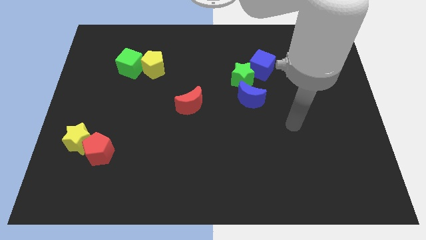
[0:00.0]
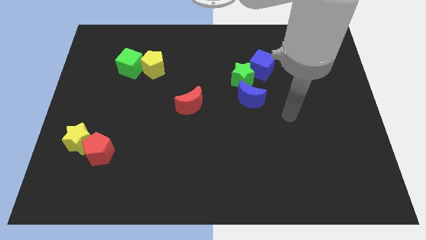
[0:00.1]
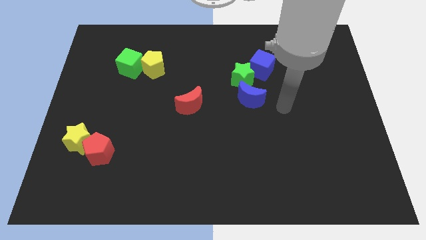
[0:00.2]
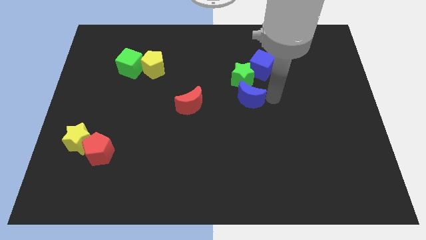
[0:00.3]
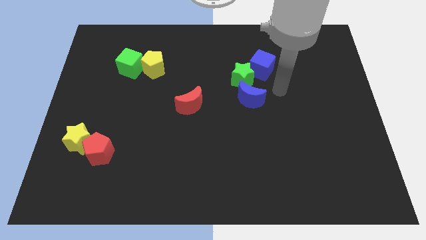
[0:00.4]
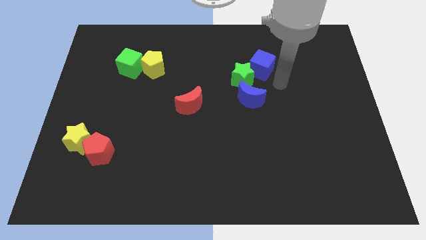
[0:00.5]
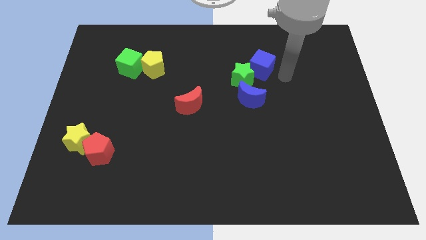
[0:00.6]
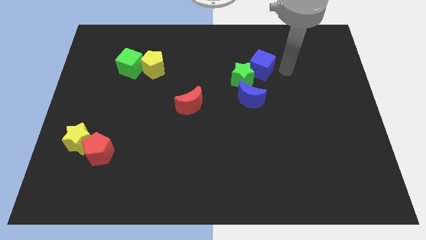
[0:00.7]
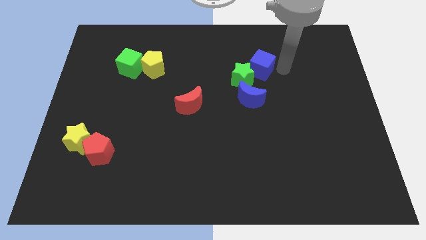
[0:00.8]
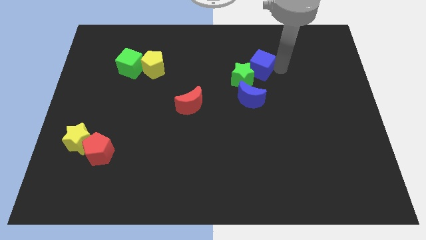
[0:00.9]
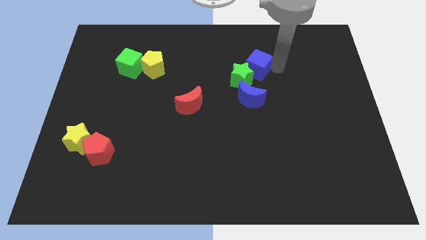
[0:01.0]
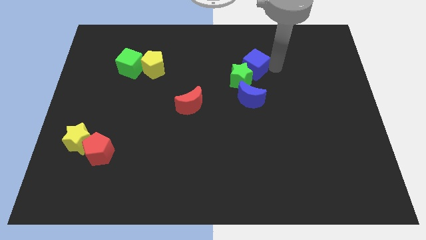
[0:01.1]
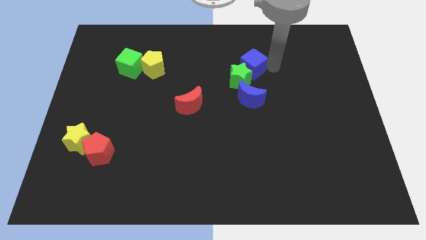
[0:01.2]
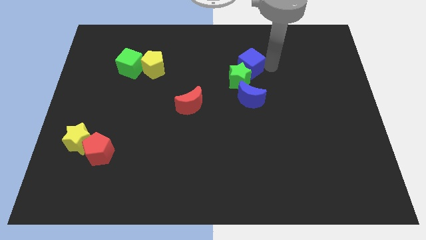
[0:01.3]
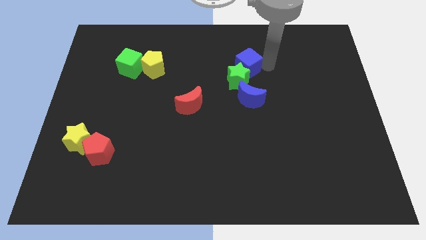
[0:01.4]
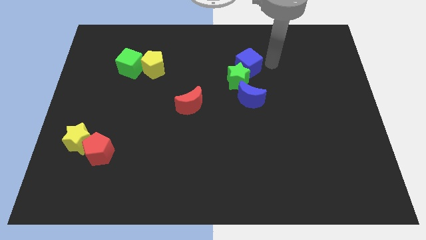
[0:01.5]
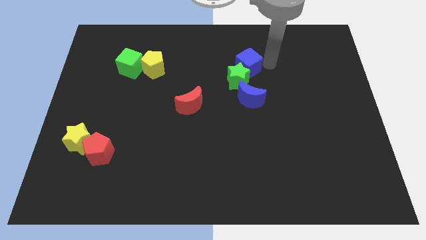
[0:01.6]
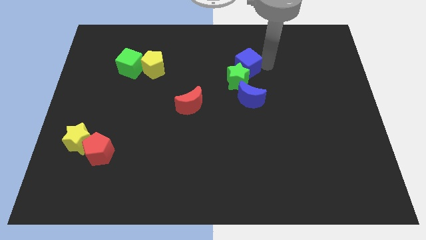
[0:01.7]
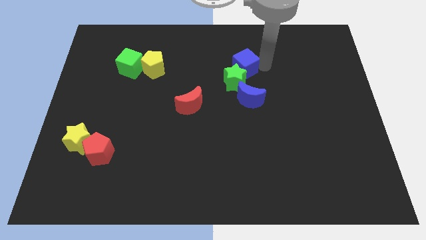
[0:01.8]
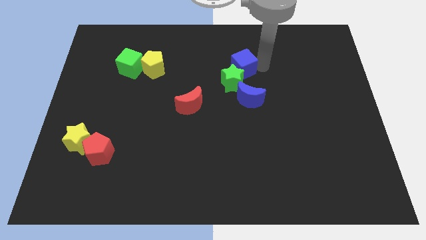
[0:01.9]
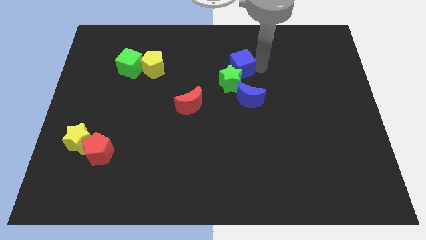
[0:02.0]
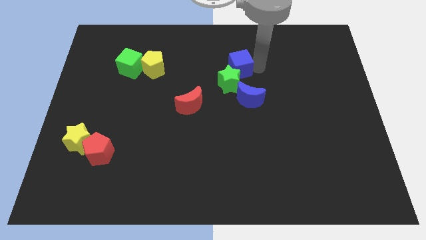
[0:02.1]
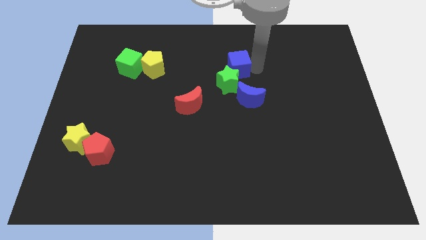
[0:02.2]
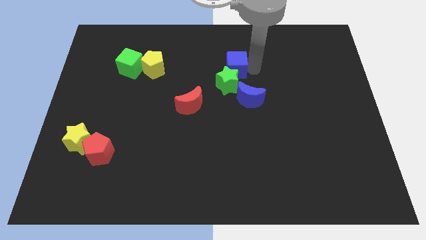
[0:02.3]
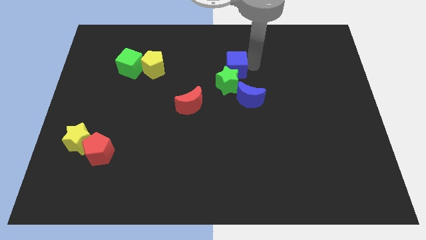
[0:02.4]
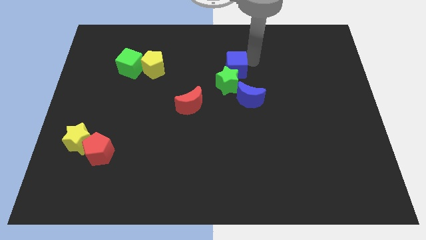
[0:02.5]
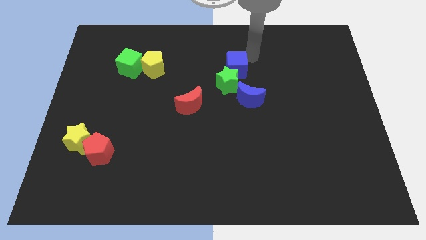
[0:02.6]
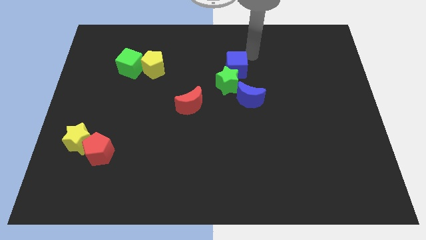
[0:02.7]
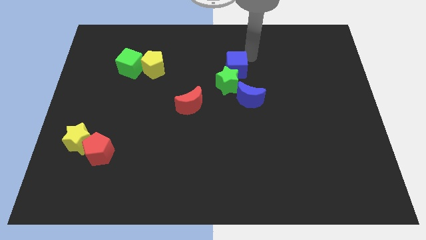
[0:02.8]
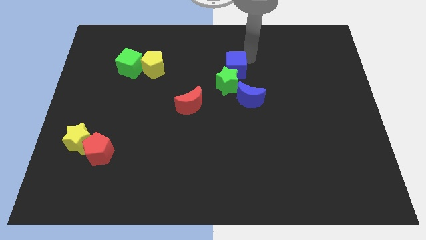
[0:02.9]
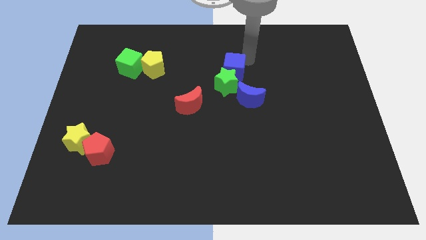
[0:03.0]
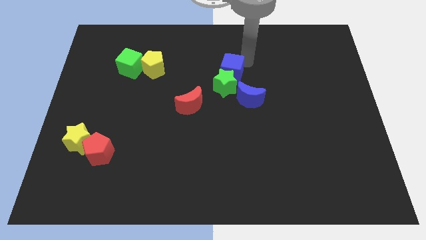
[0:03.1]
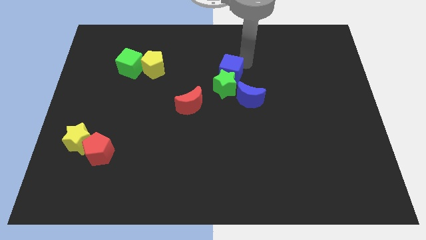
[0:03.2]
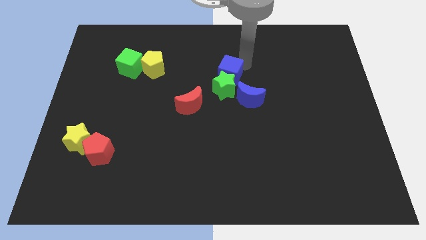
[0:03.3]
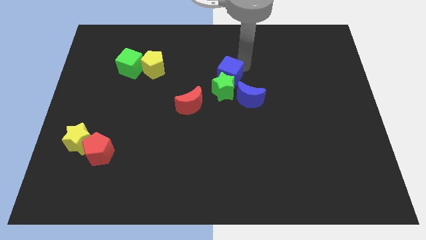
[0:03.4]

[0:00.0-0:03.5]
slightly push the blue cube downwards and left diagonally

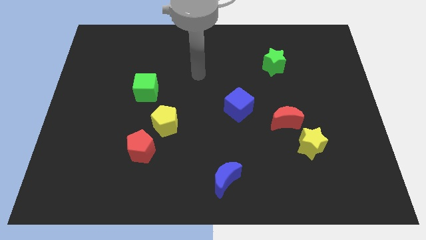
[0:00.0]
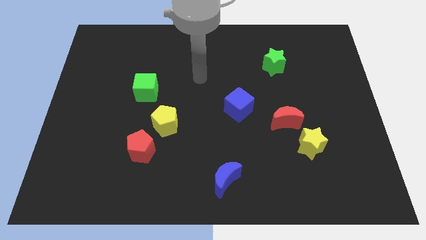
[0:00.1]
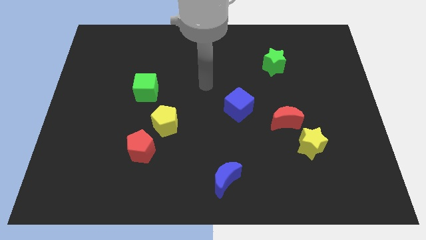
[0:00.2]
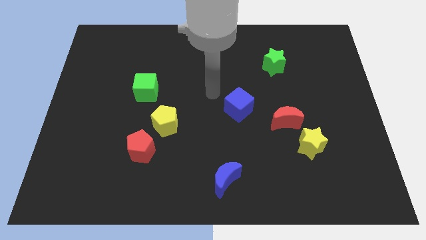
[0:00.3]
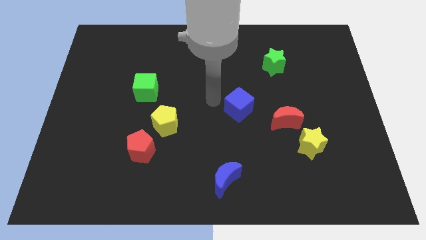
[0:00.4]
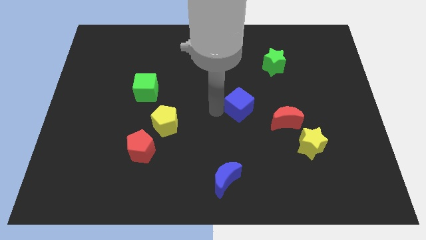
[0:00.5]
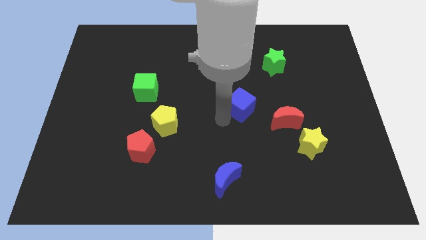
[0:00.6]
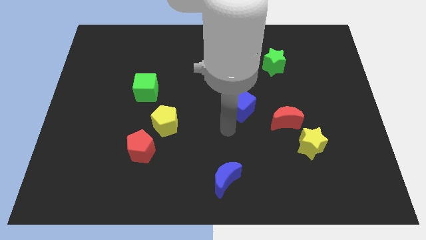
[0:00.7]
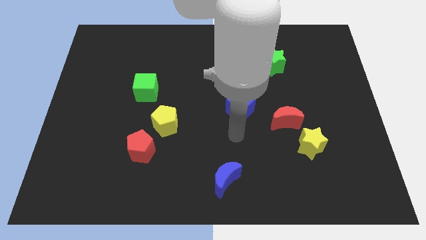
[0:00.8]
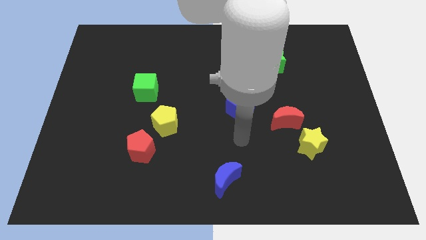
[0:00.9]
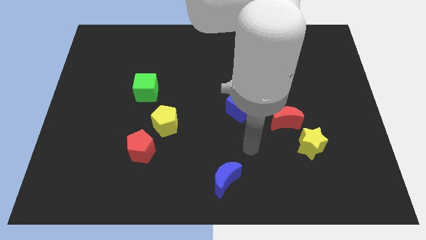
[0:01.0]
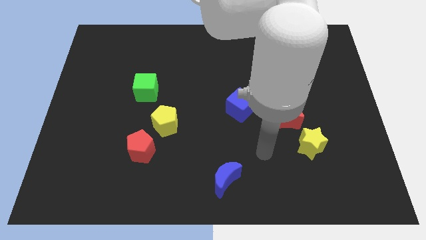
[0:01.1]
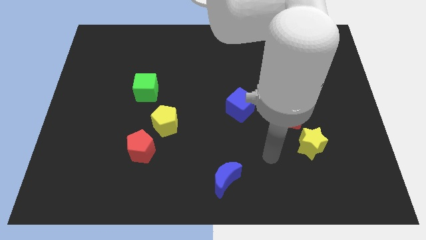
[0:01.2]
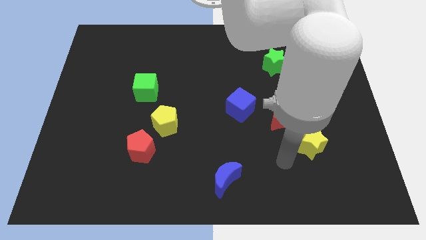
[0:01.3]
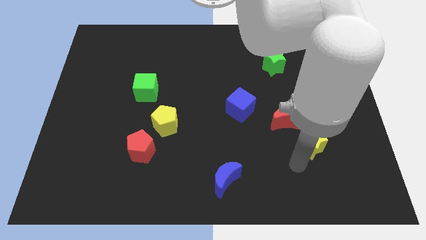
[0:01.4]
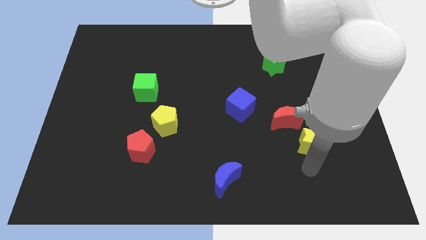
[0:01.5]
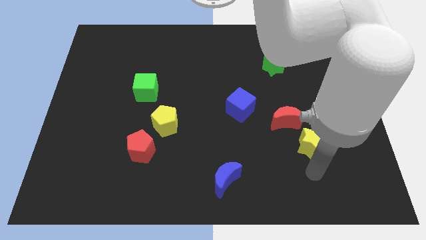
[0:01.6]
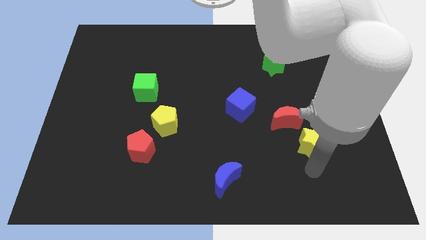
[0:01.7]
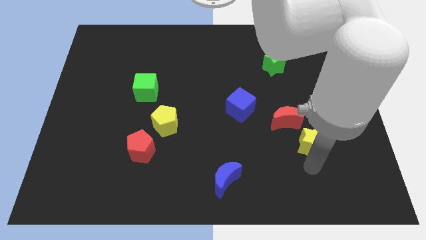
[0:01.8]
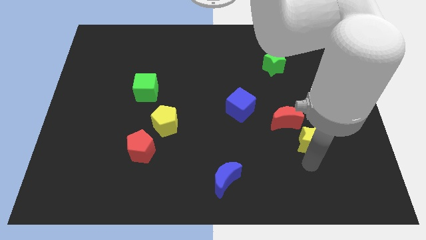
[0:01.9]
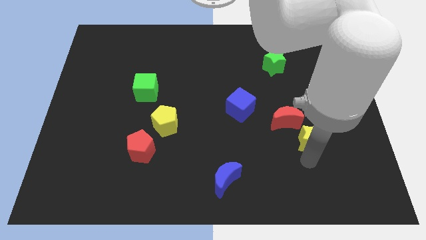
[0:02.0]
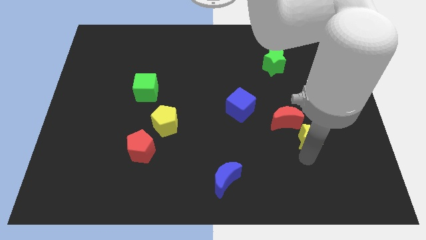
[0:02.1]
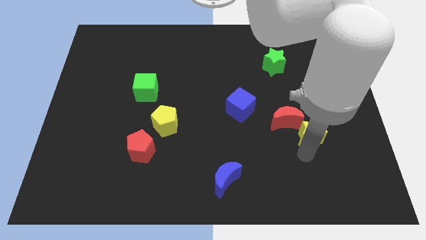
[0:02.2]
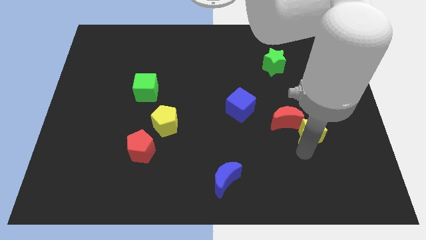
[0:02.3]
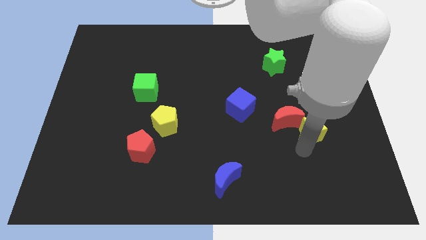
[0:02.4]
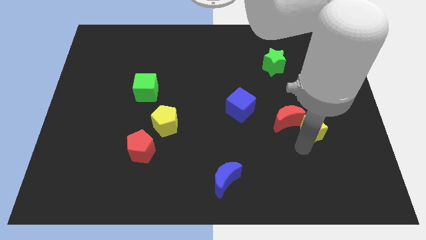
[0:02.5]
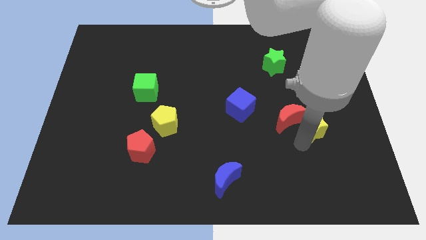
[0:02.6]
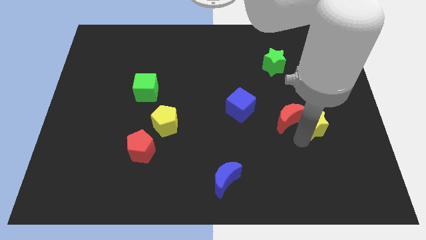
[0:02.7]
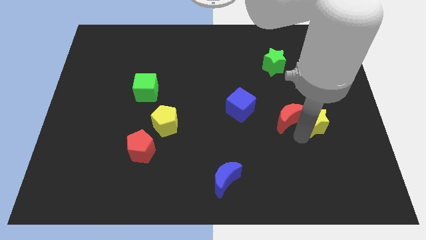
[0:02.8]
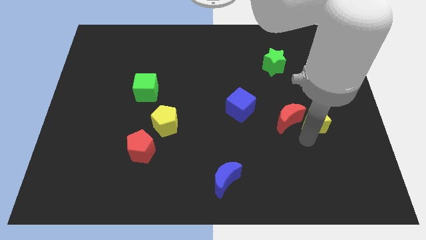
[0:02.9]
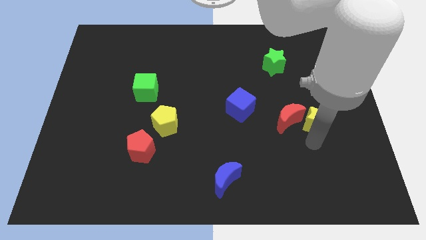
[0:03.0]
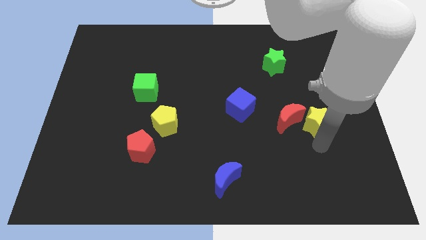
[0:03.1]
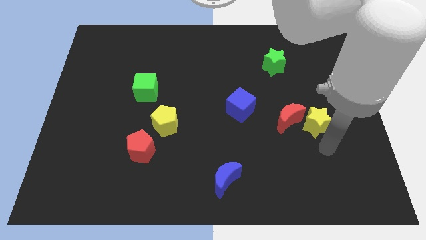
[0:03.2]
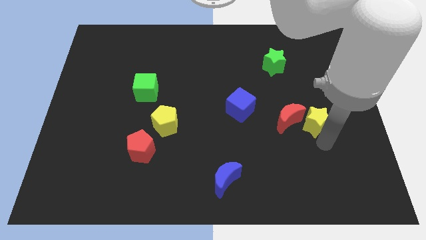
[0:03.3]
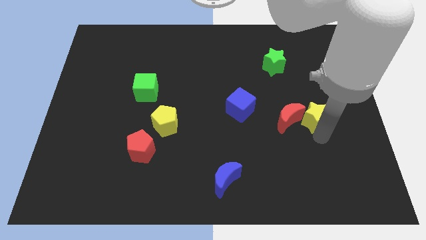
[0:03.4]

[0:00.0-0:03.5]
slide the yellow star upwards a little bit

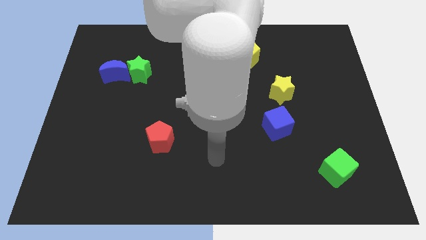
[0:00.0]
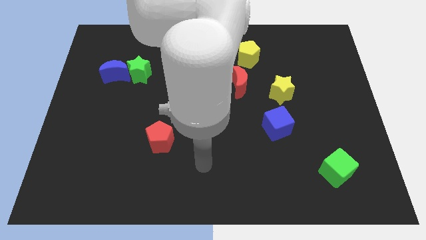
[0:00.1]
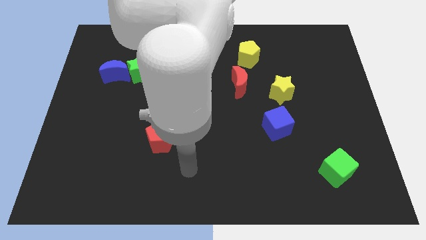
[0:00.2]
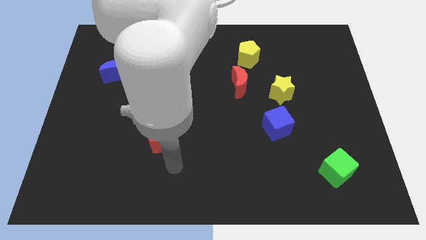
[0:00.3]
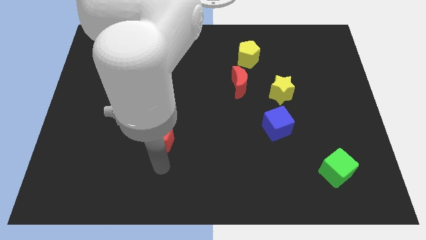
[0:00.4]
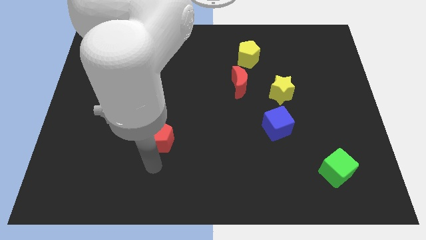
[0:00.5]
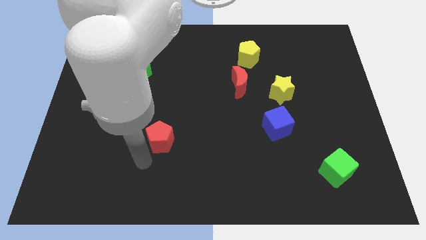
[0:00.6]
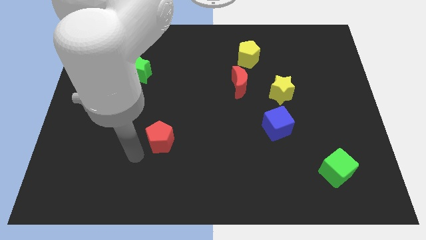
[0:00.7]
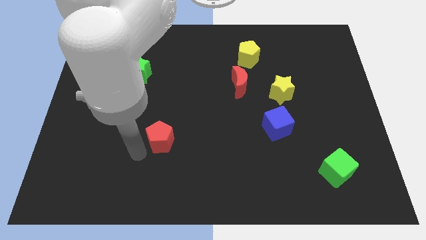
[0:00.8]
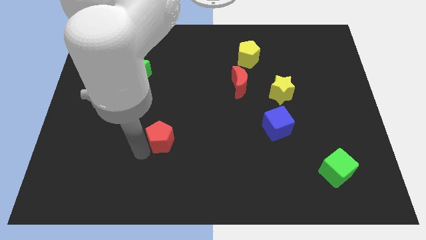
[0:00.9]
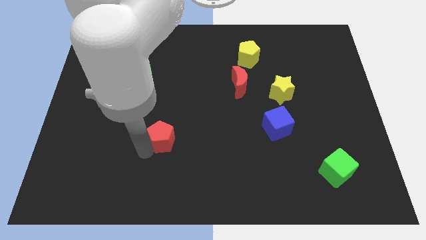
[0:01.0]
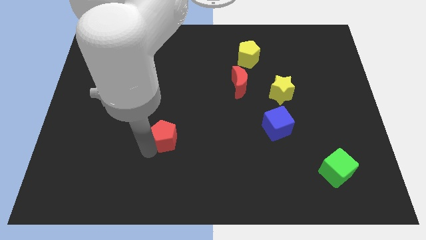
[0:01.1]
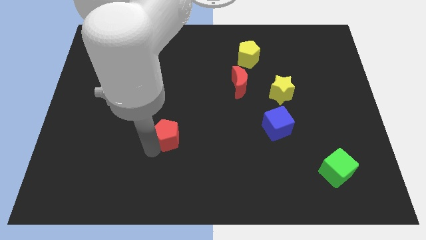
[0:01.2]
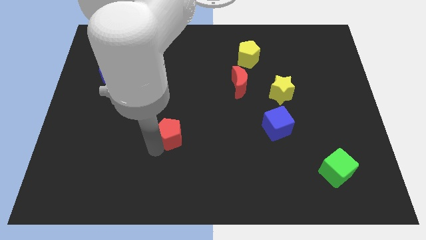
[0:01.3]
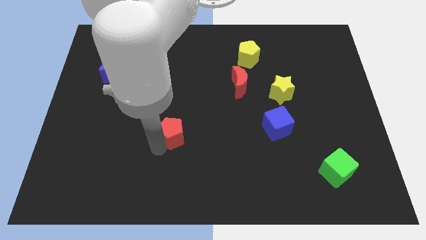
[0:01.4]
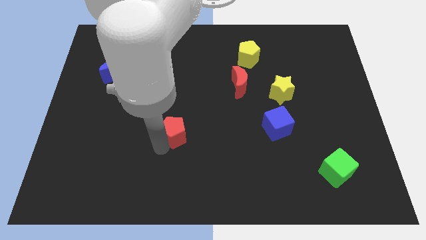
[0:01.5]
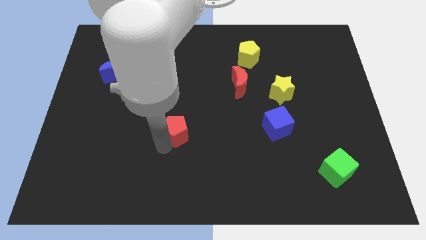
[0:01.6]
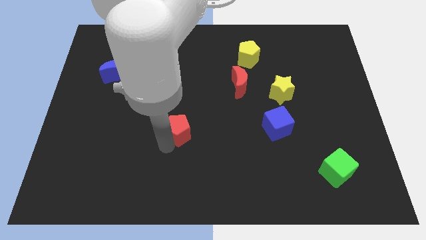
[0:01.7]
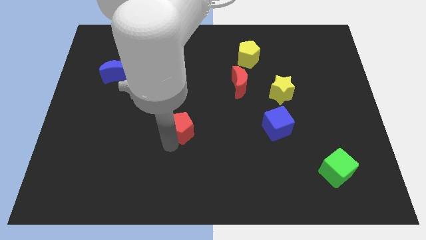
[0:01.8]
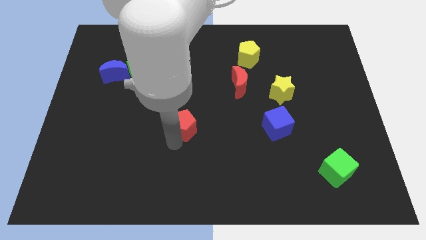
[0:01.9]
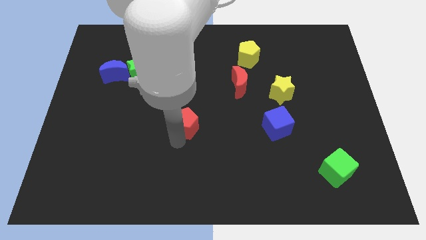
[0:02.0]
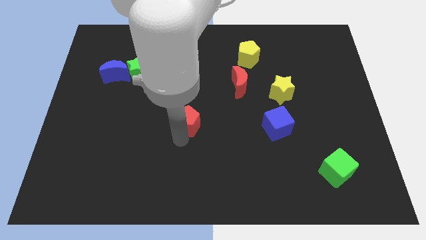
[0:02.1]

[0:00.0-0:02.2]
push the red pentagon up and then right a little bit
